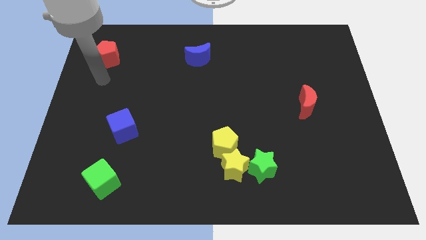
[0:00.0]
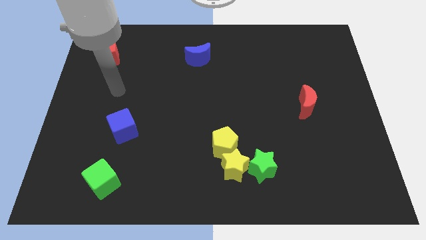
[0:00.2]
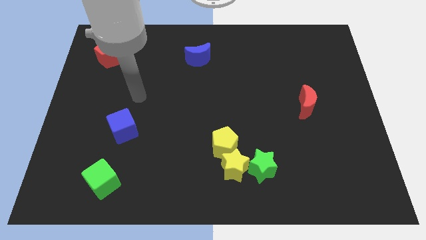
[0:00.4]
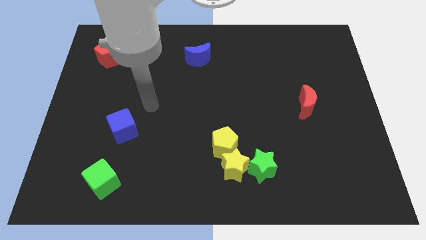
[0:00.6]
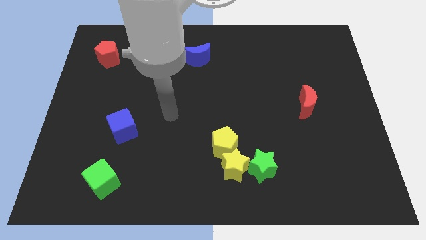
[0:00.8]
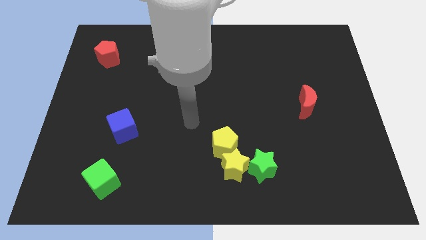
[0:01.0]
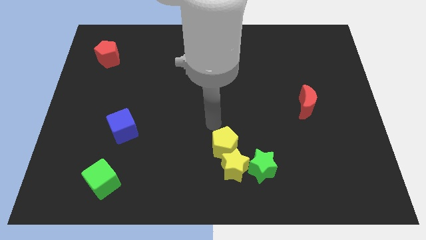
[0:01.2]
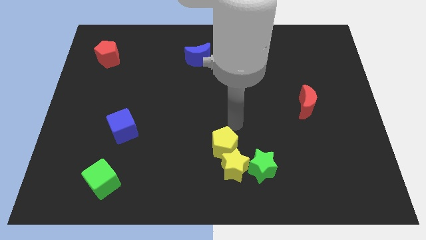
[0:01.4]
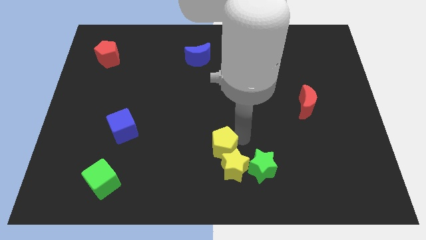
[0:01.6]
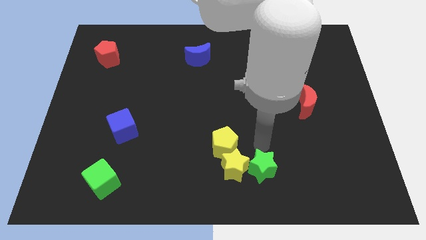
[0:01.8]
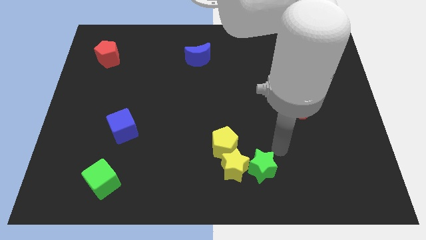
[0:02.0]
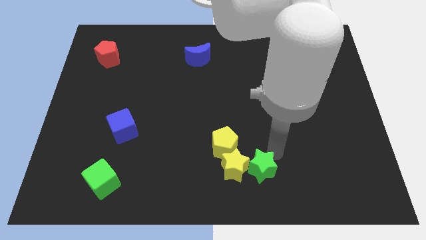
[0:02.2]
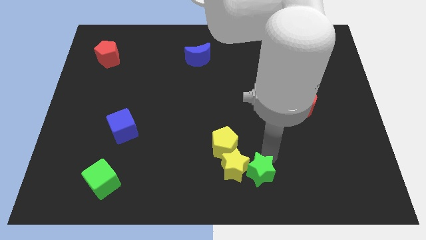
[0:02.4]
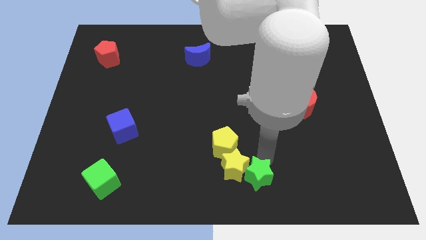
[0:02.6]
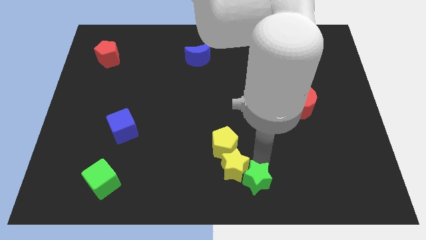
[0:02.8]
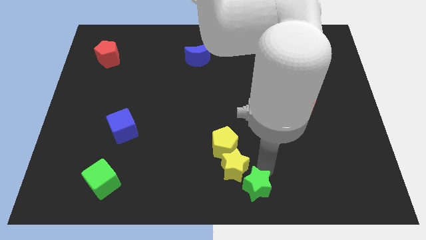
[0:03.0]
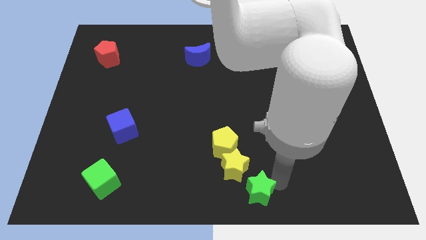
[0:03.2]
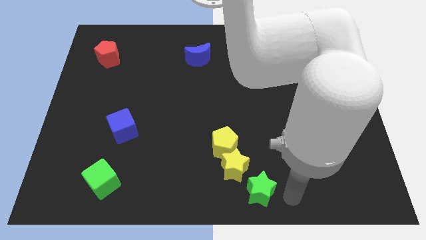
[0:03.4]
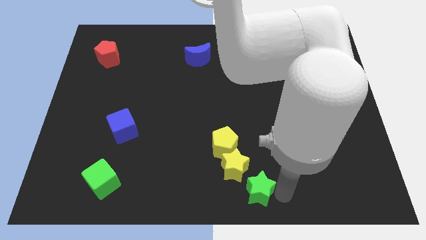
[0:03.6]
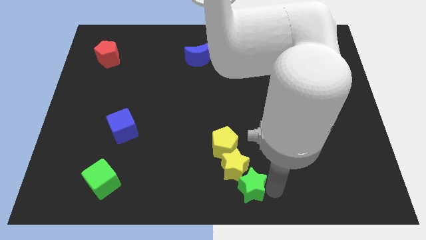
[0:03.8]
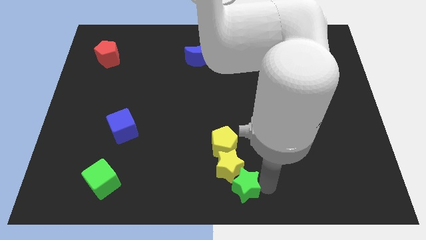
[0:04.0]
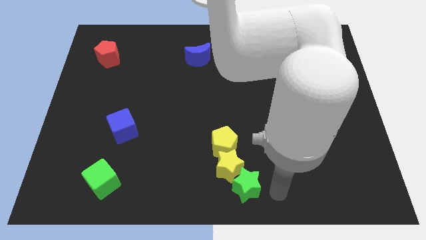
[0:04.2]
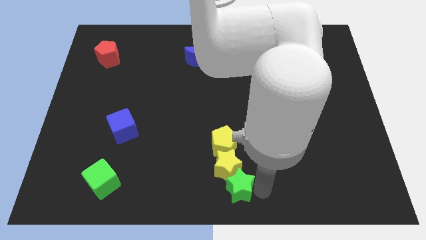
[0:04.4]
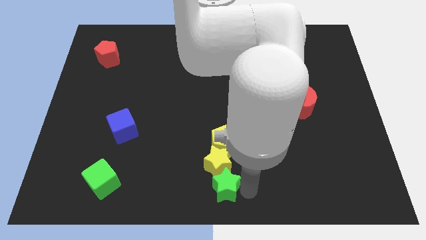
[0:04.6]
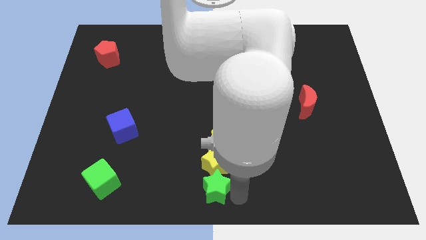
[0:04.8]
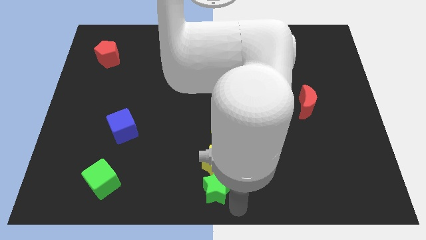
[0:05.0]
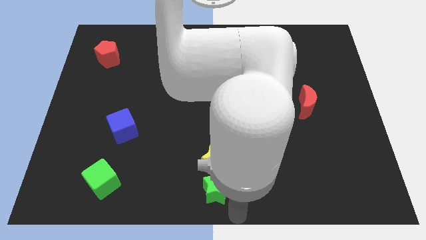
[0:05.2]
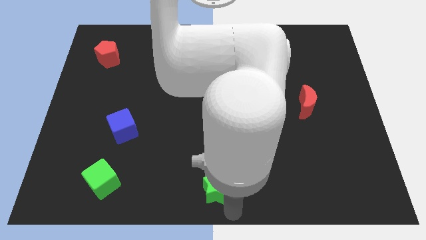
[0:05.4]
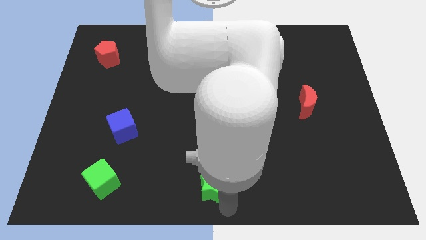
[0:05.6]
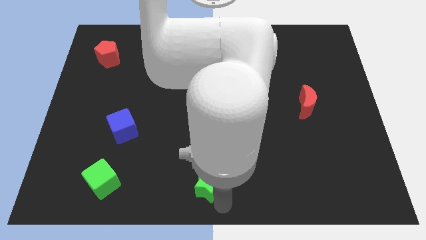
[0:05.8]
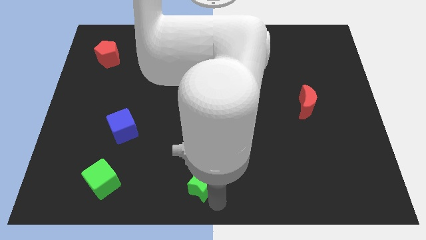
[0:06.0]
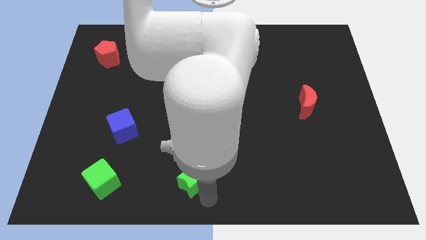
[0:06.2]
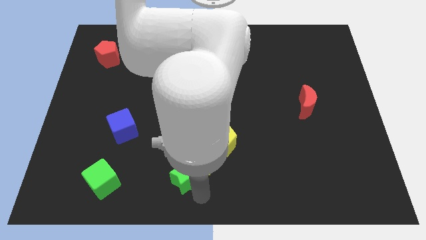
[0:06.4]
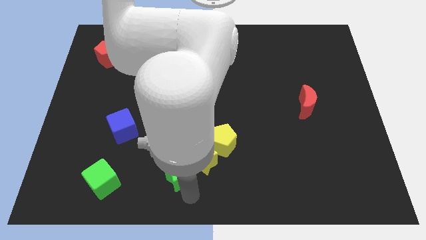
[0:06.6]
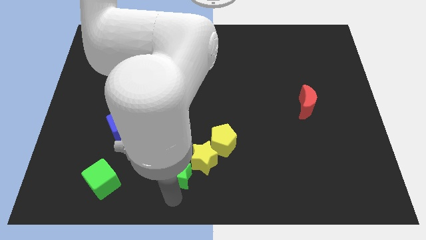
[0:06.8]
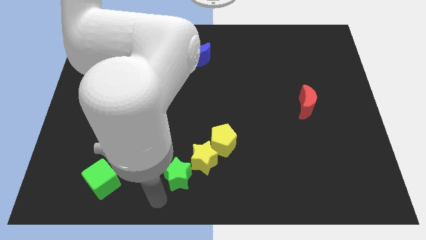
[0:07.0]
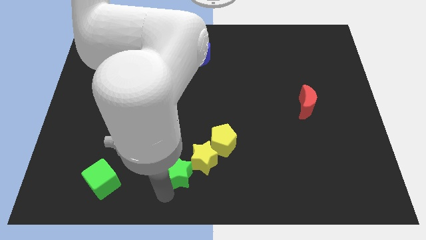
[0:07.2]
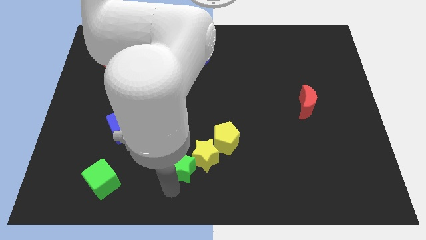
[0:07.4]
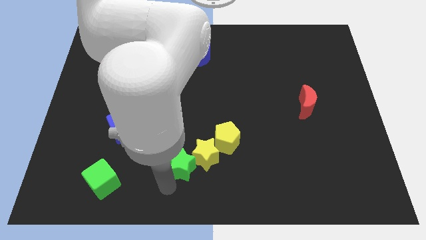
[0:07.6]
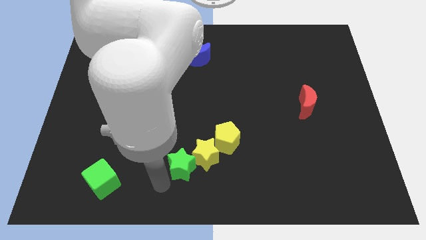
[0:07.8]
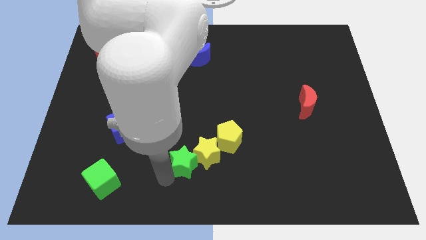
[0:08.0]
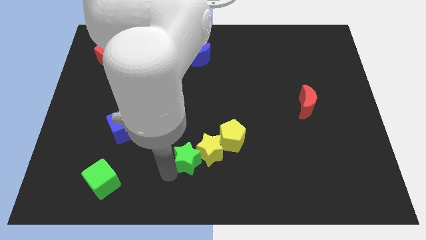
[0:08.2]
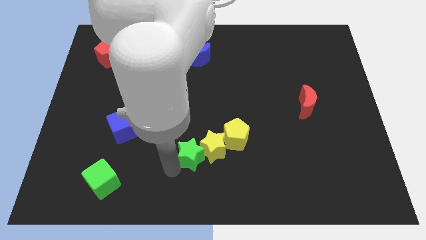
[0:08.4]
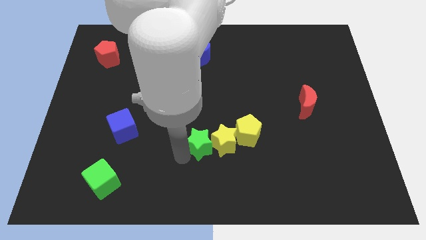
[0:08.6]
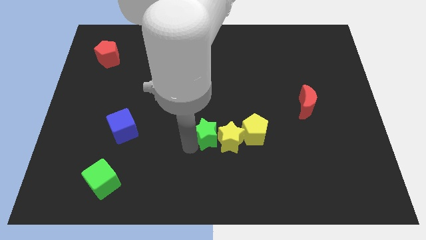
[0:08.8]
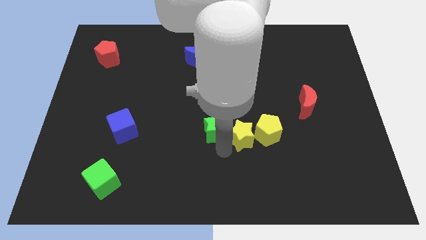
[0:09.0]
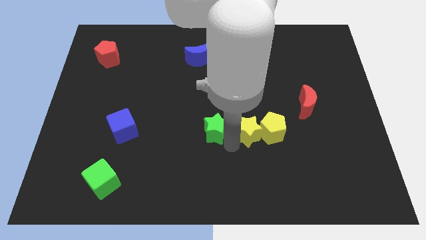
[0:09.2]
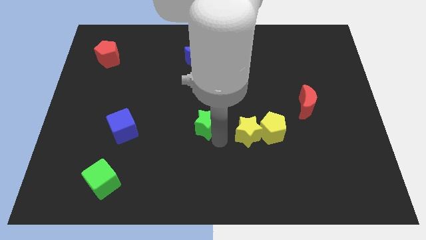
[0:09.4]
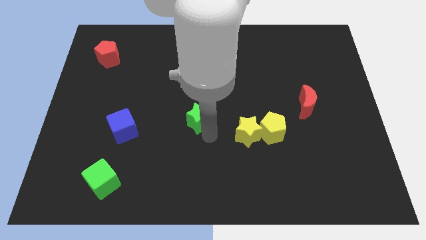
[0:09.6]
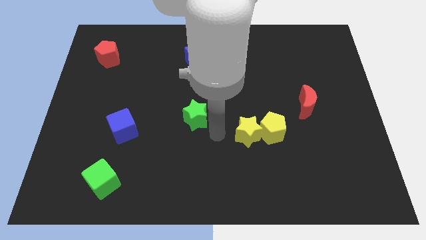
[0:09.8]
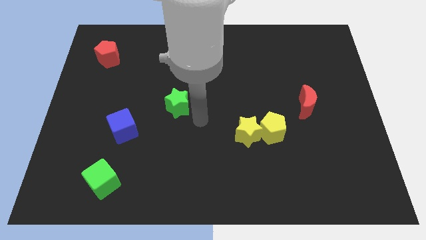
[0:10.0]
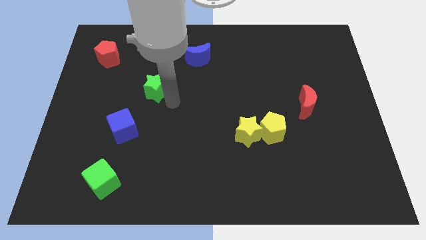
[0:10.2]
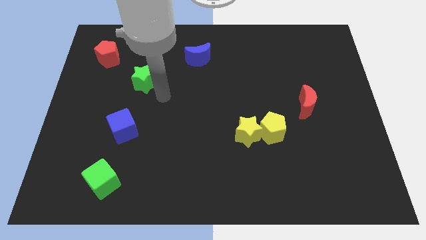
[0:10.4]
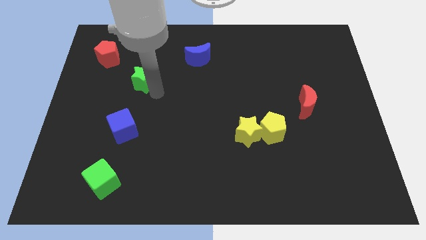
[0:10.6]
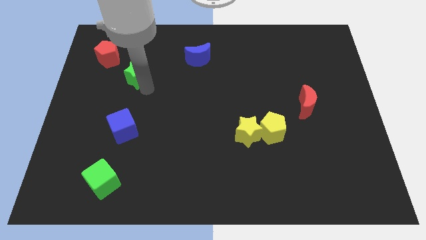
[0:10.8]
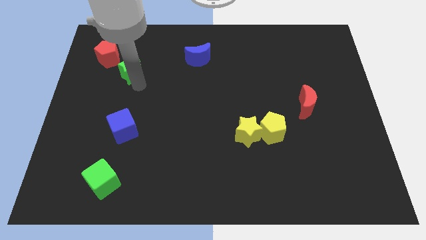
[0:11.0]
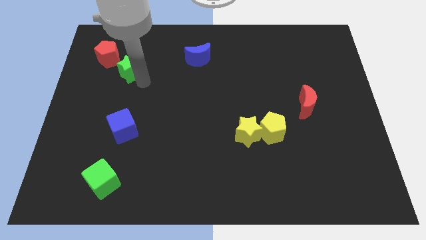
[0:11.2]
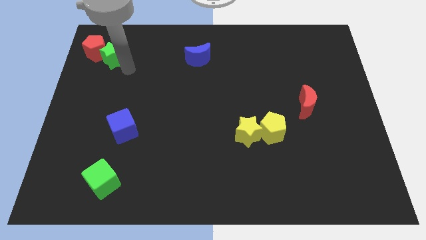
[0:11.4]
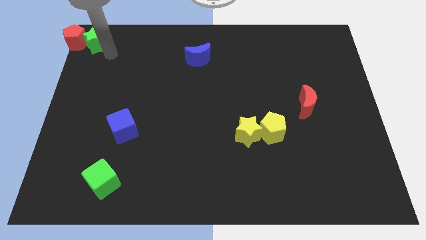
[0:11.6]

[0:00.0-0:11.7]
slide the green star to the upper left corner

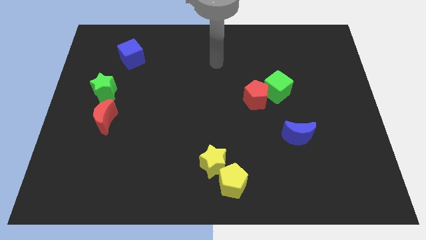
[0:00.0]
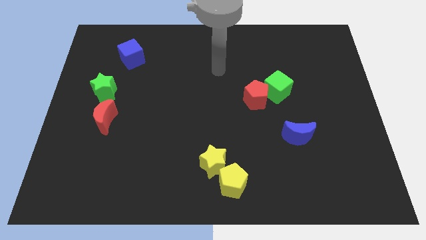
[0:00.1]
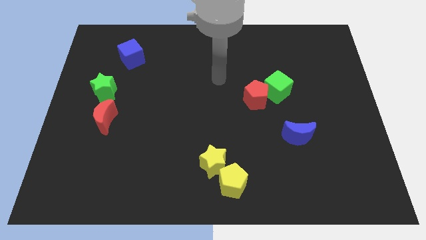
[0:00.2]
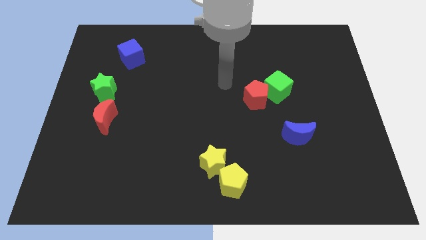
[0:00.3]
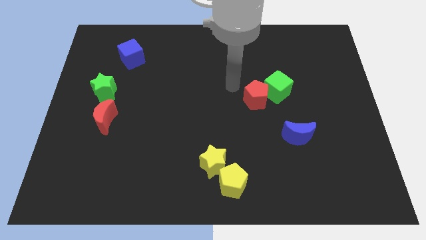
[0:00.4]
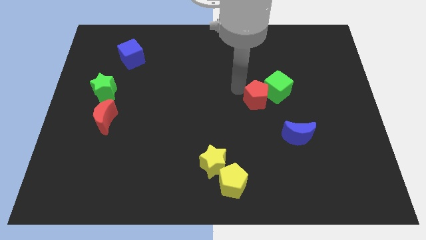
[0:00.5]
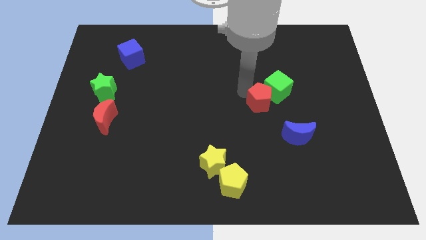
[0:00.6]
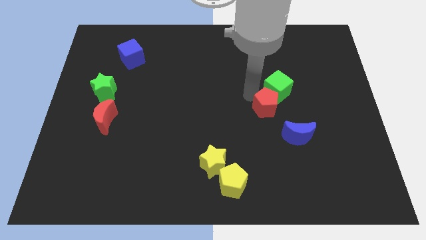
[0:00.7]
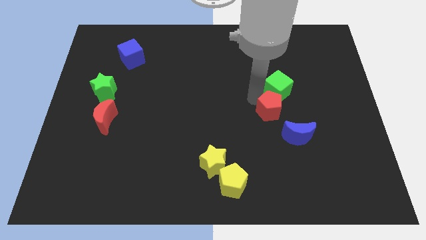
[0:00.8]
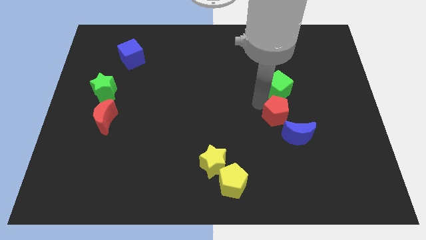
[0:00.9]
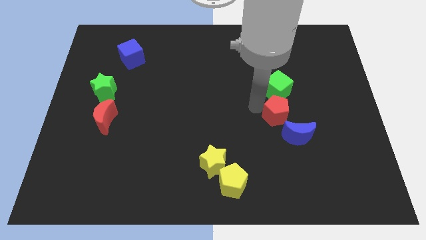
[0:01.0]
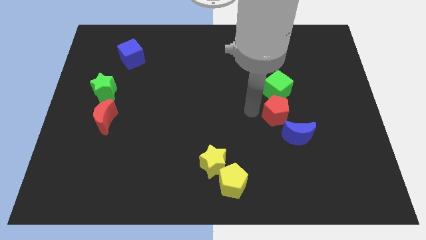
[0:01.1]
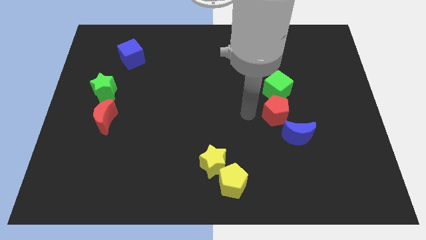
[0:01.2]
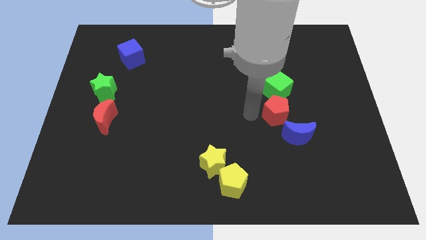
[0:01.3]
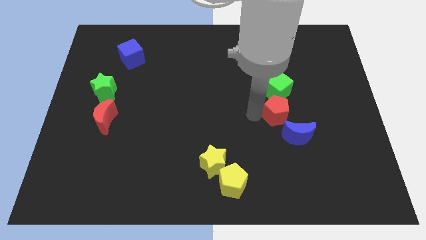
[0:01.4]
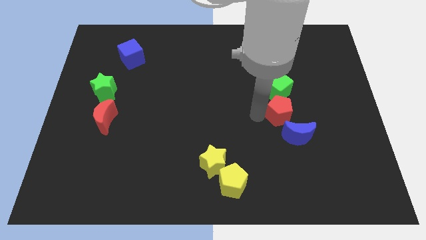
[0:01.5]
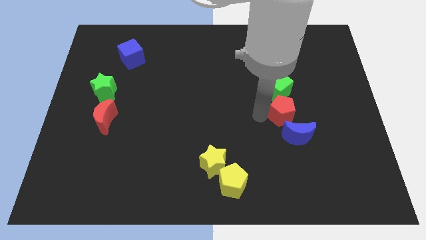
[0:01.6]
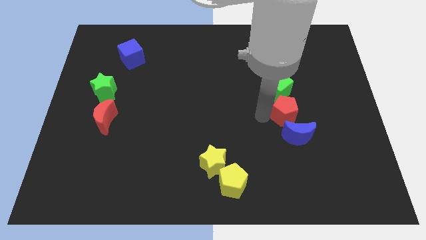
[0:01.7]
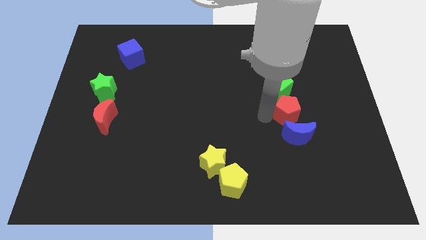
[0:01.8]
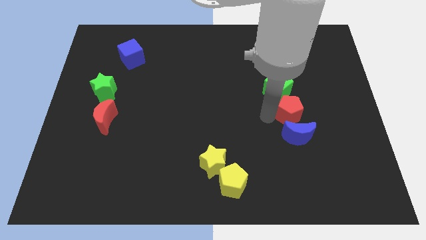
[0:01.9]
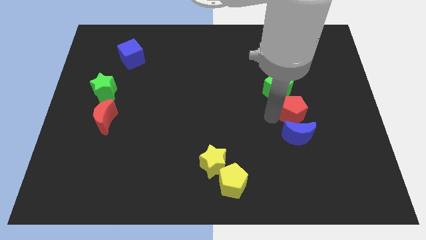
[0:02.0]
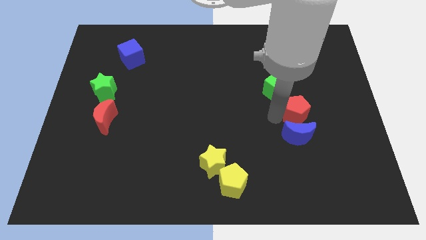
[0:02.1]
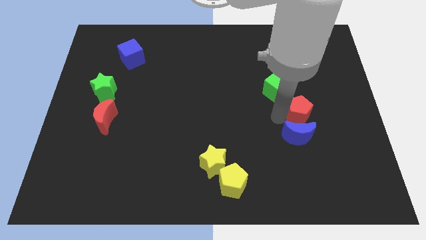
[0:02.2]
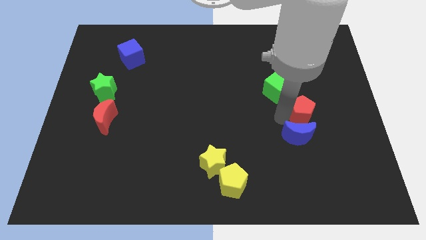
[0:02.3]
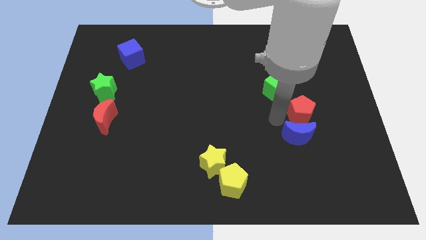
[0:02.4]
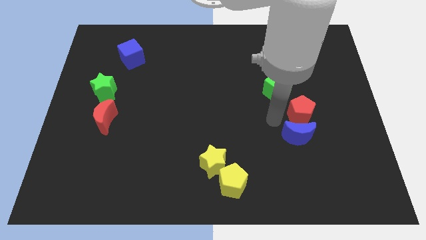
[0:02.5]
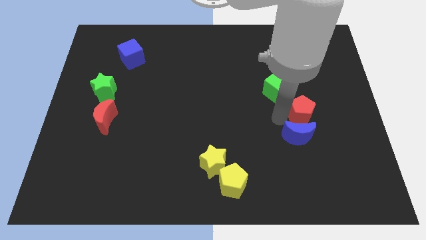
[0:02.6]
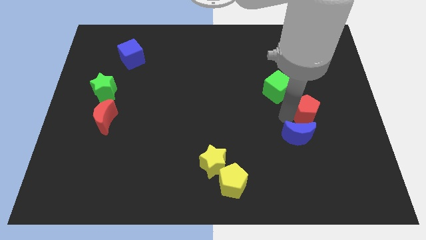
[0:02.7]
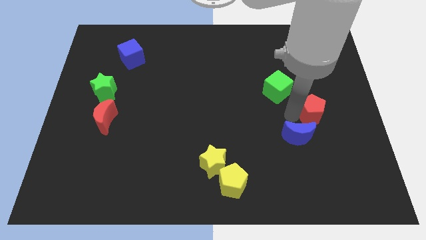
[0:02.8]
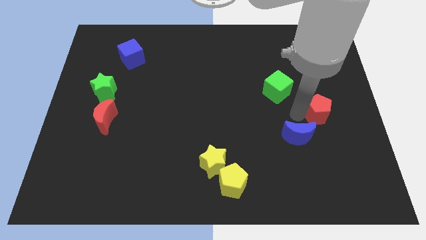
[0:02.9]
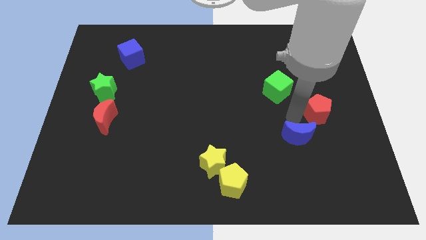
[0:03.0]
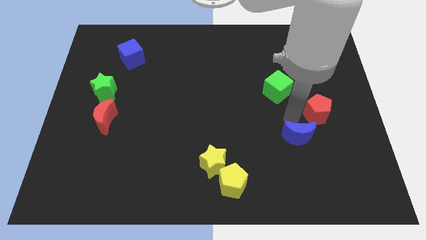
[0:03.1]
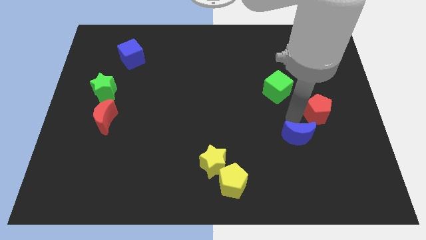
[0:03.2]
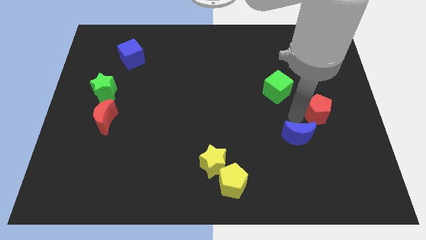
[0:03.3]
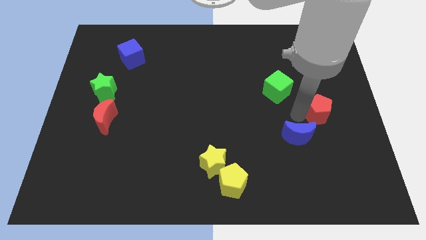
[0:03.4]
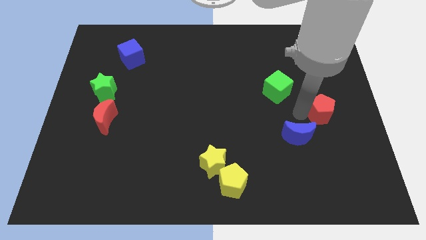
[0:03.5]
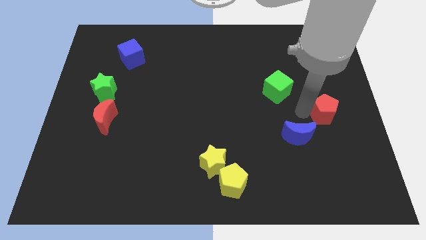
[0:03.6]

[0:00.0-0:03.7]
move the red pentagon to the right side
